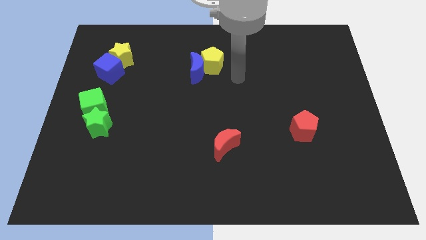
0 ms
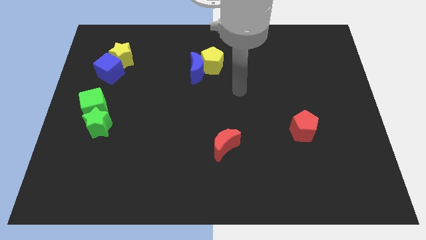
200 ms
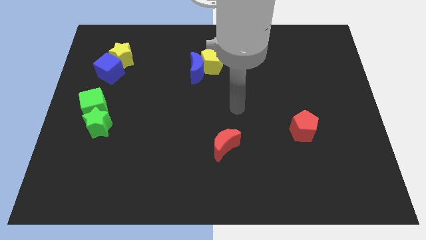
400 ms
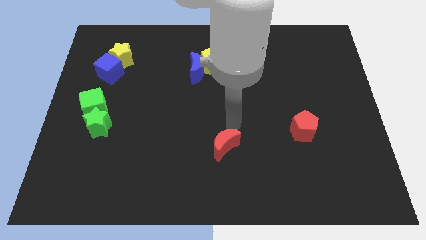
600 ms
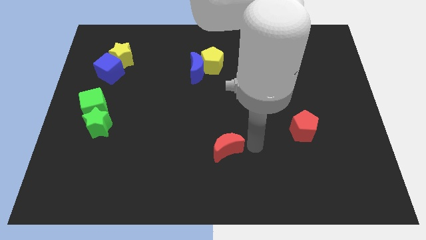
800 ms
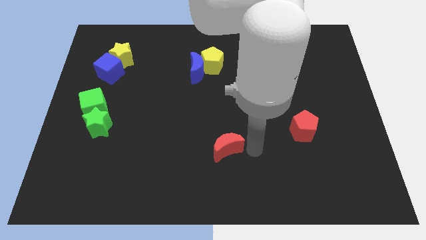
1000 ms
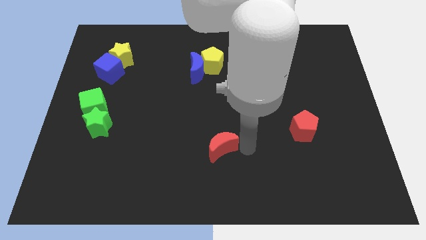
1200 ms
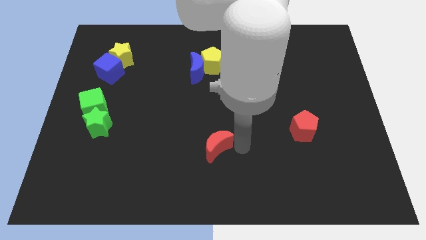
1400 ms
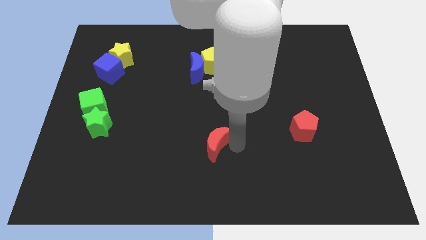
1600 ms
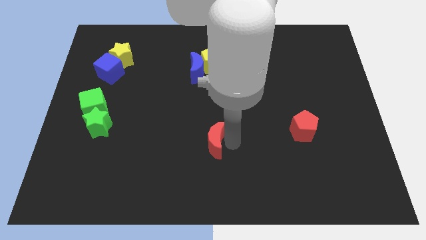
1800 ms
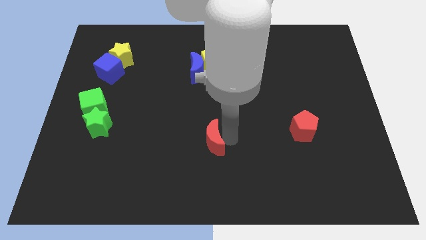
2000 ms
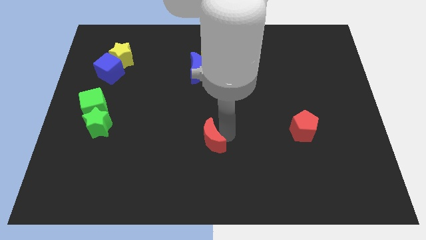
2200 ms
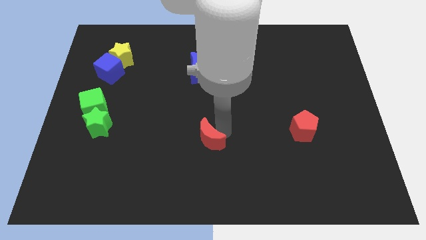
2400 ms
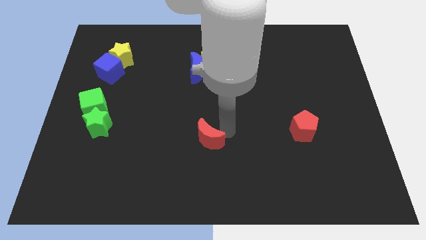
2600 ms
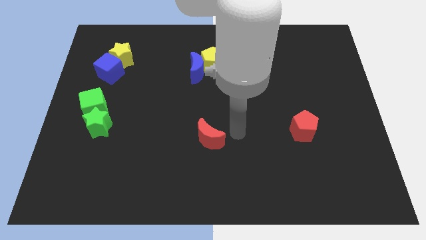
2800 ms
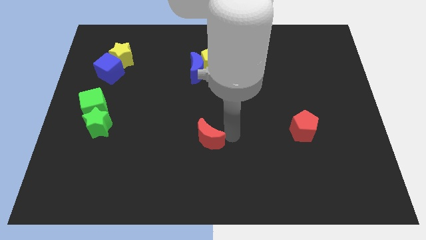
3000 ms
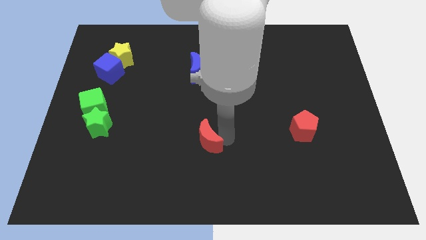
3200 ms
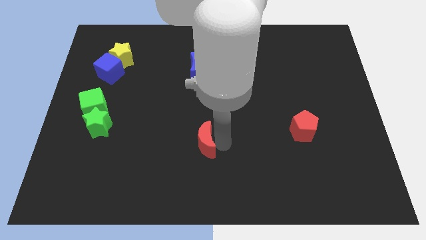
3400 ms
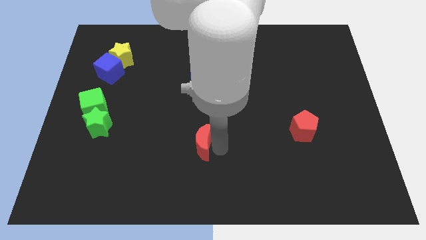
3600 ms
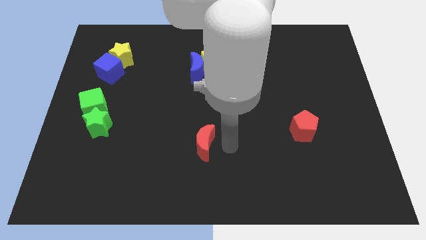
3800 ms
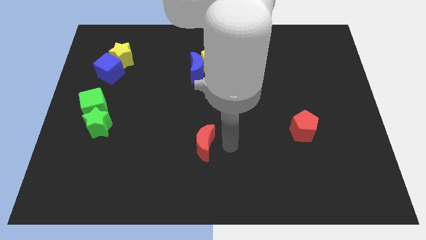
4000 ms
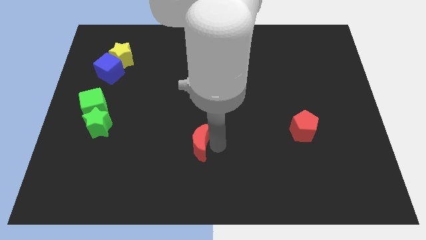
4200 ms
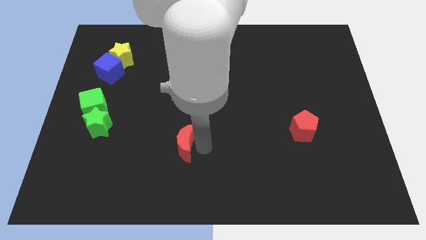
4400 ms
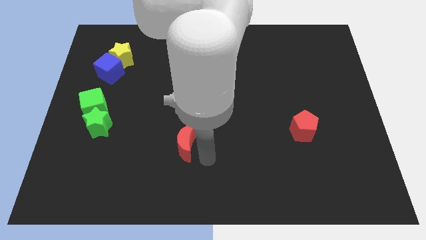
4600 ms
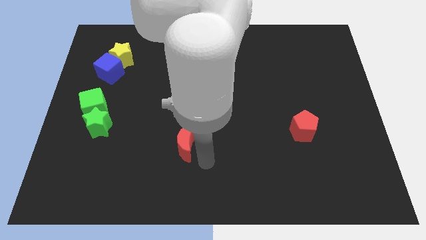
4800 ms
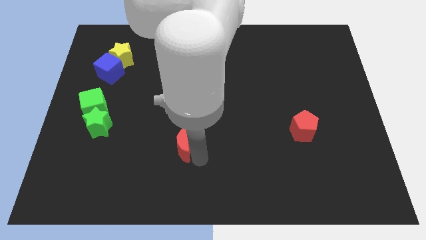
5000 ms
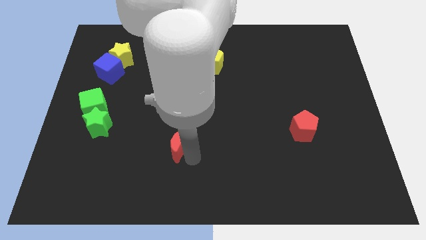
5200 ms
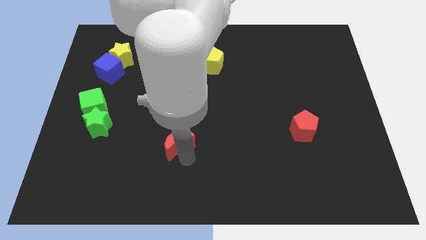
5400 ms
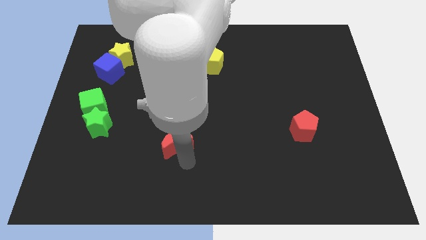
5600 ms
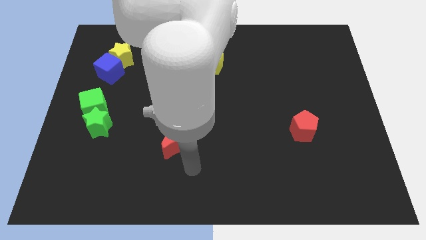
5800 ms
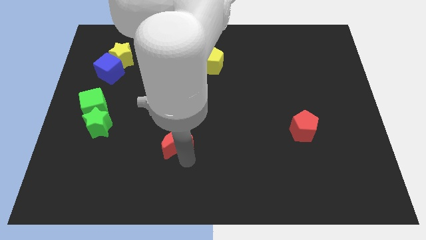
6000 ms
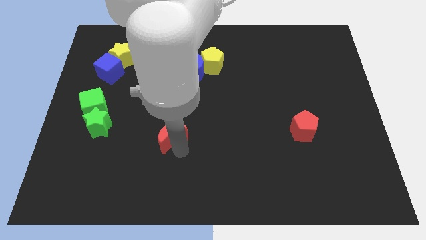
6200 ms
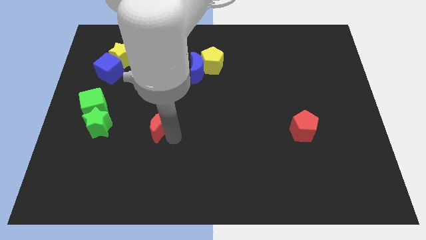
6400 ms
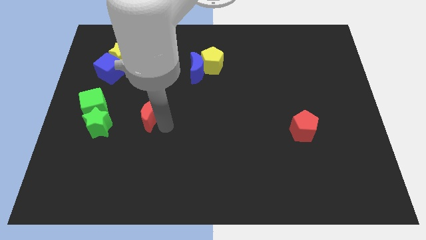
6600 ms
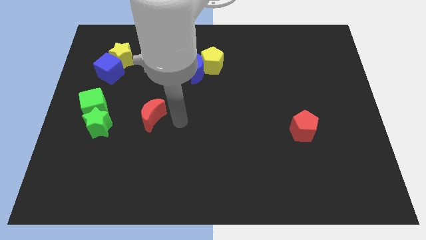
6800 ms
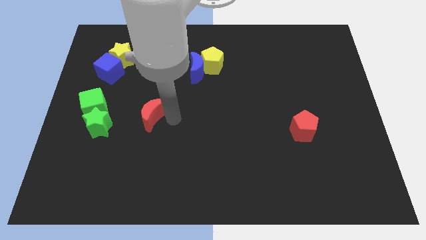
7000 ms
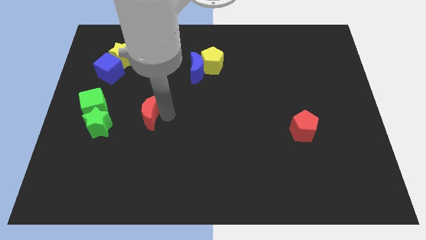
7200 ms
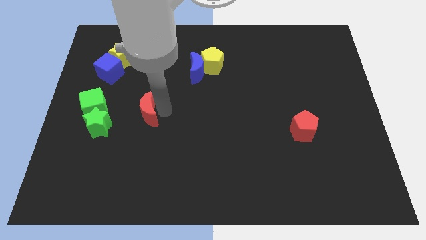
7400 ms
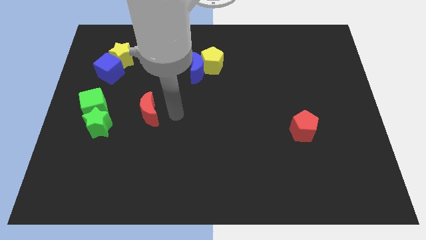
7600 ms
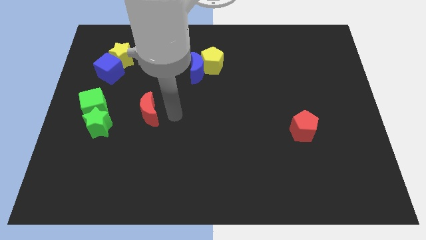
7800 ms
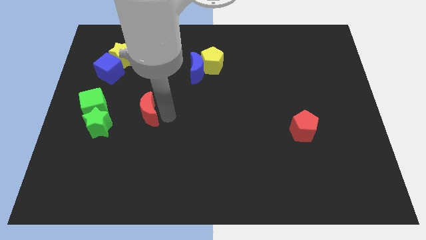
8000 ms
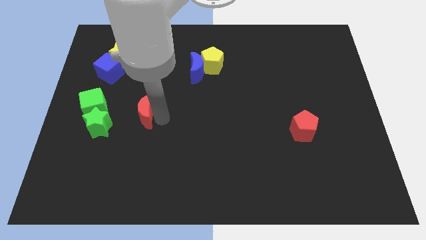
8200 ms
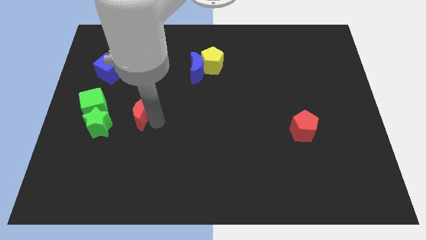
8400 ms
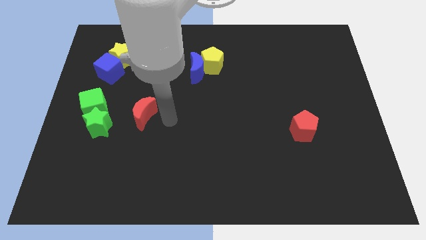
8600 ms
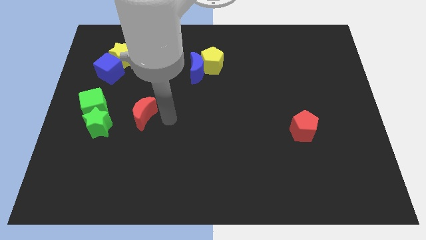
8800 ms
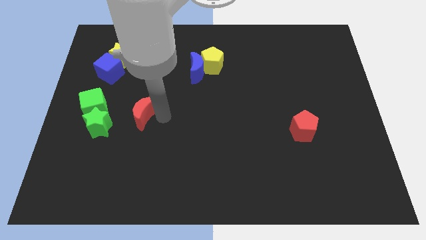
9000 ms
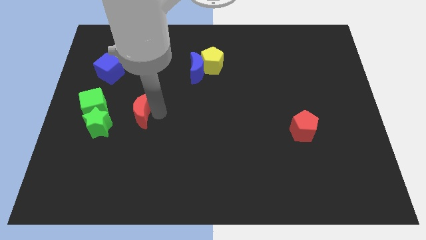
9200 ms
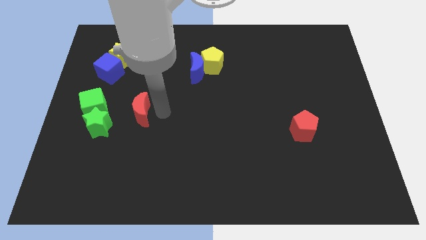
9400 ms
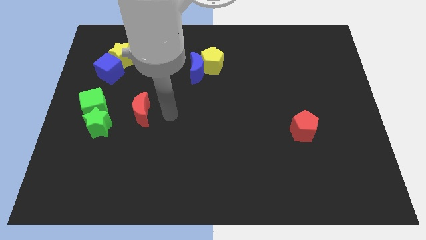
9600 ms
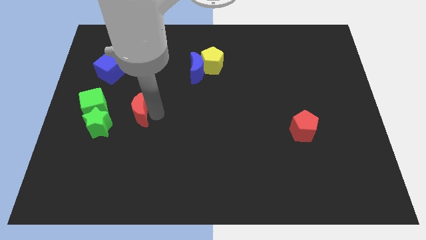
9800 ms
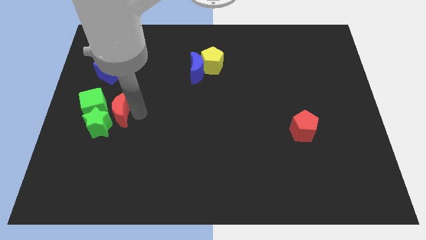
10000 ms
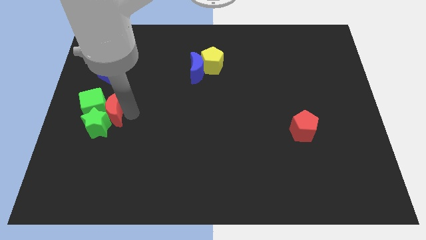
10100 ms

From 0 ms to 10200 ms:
push the red moon next to the green cube

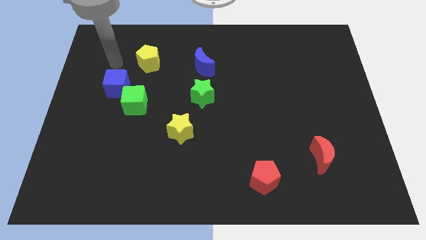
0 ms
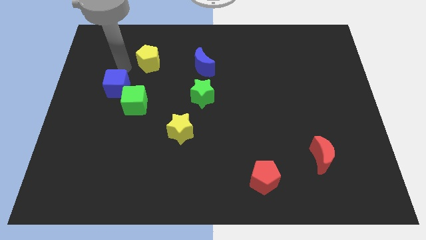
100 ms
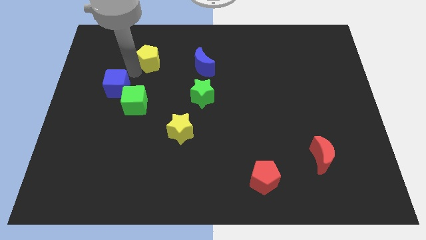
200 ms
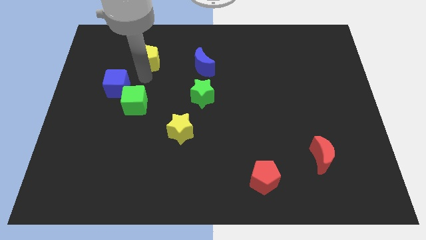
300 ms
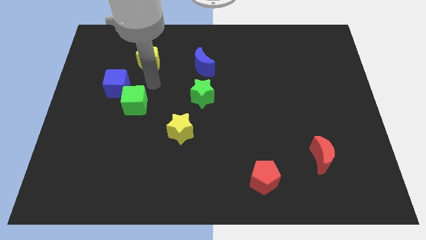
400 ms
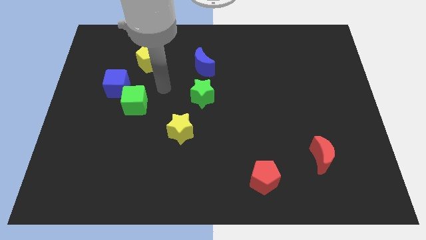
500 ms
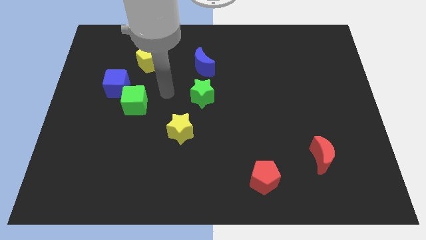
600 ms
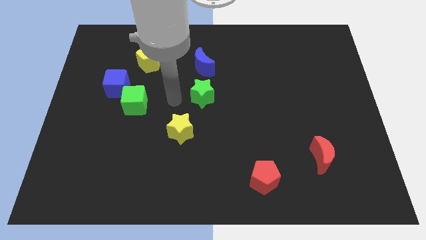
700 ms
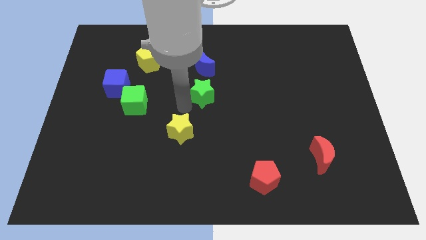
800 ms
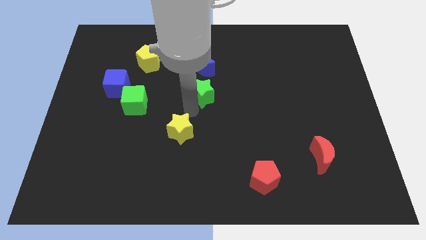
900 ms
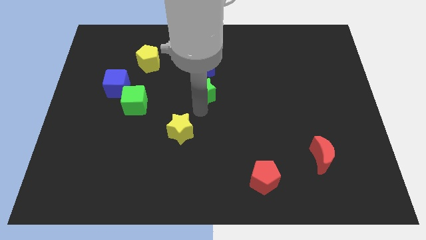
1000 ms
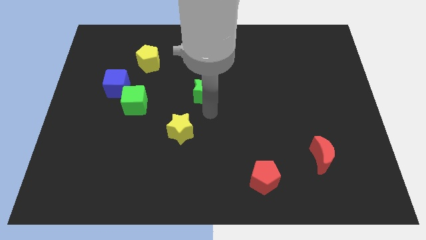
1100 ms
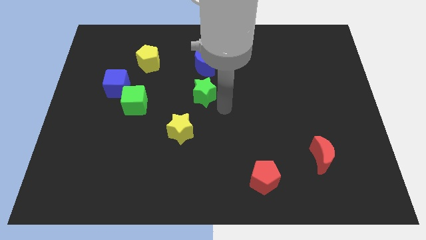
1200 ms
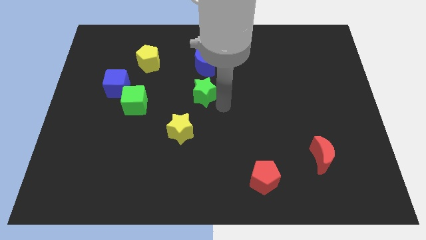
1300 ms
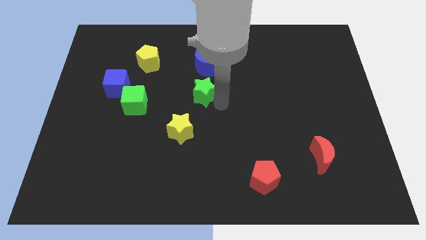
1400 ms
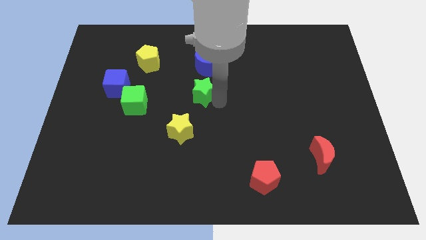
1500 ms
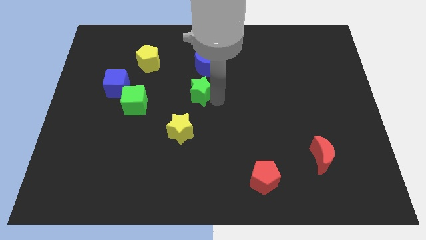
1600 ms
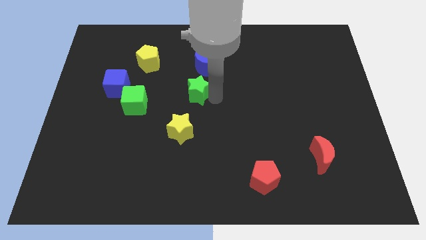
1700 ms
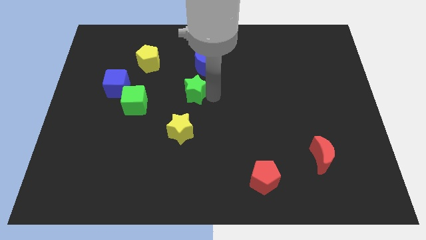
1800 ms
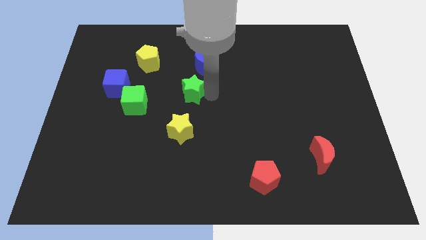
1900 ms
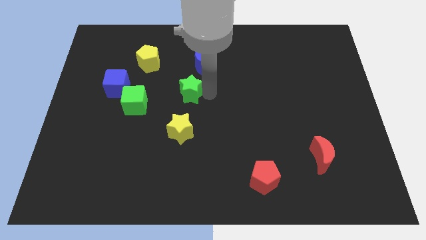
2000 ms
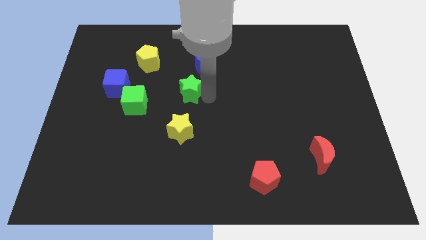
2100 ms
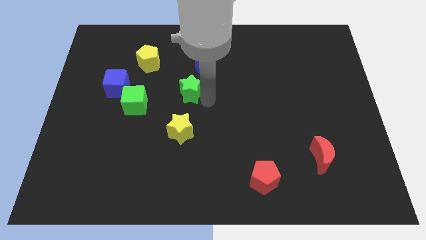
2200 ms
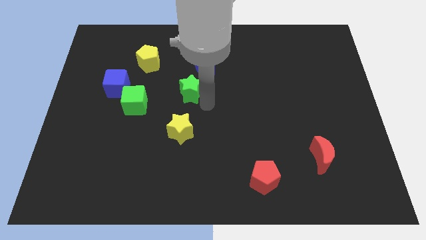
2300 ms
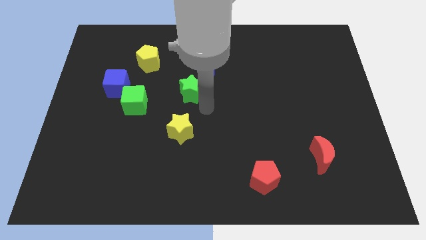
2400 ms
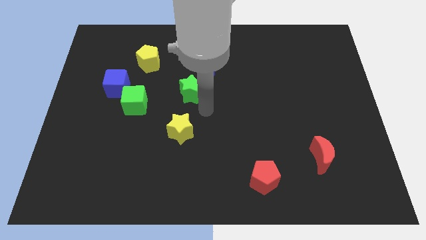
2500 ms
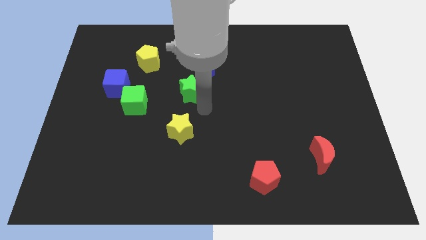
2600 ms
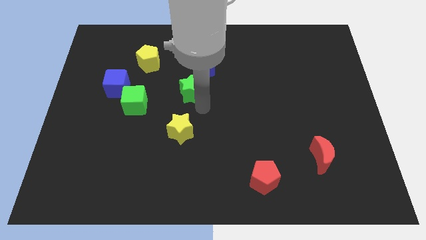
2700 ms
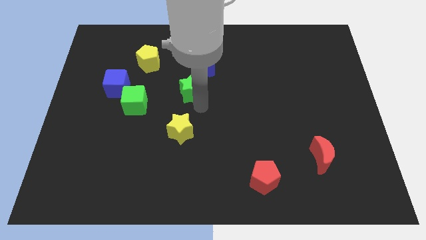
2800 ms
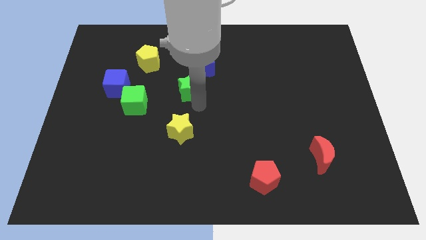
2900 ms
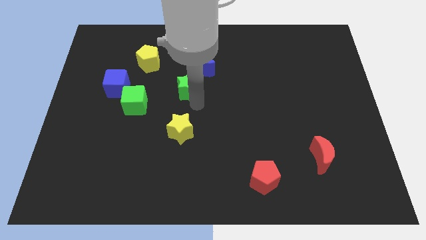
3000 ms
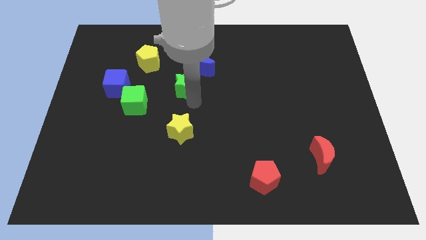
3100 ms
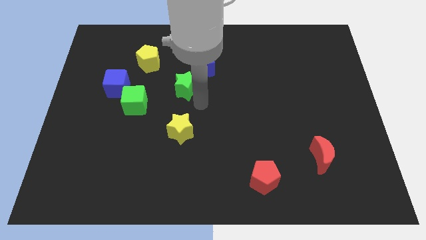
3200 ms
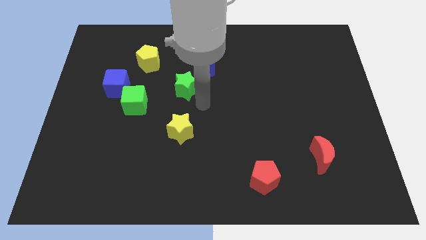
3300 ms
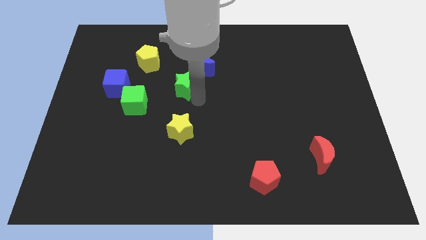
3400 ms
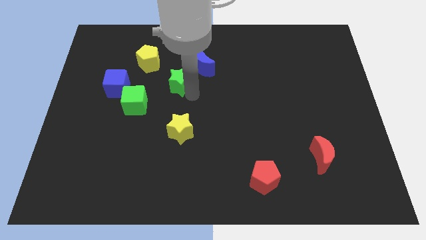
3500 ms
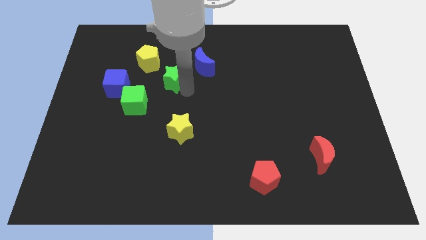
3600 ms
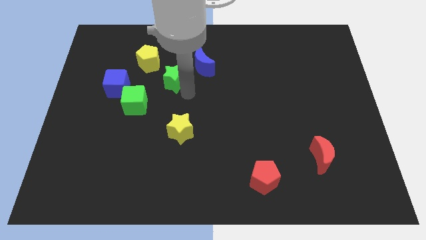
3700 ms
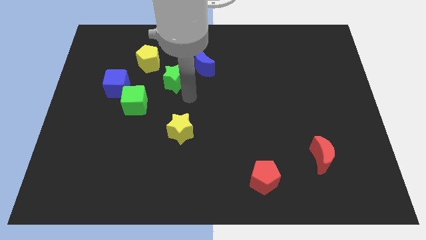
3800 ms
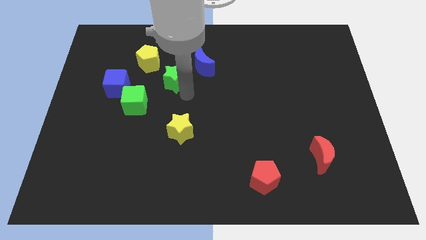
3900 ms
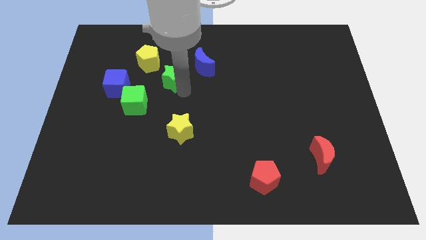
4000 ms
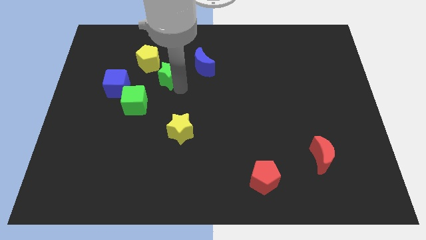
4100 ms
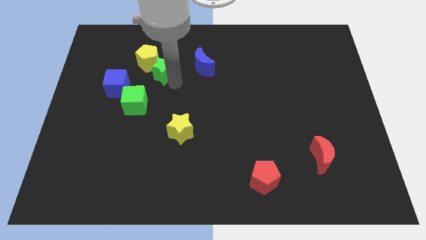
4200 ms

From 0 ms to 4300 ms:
push the green star close to the yellow pentagon
